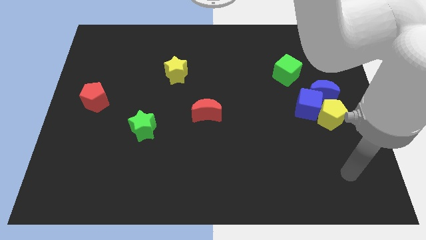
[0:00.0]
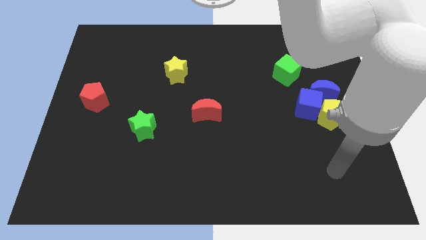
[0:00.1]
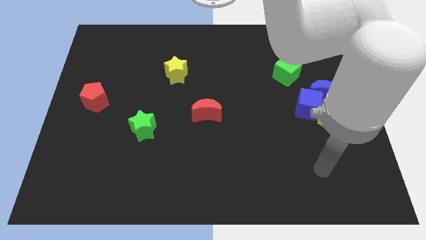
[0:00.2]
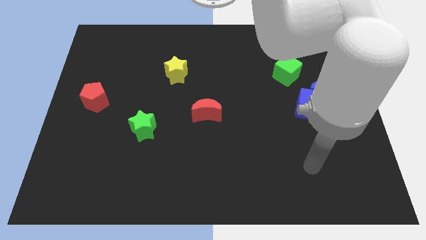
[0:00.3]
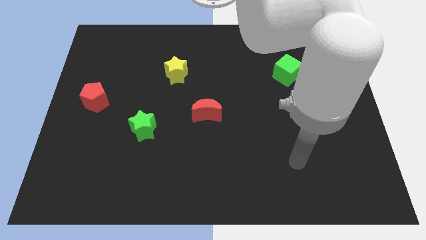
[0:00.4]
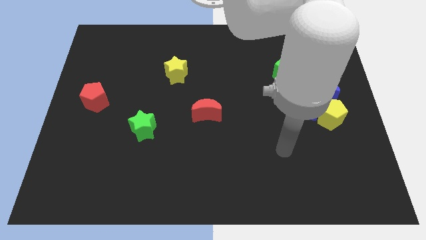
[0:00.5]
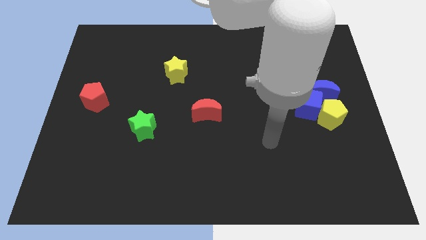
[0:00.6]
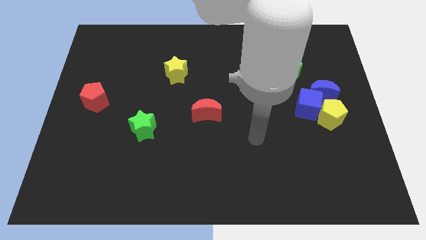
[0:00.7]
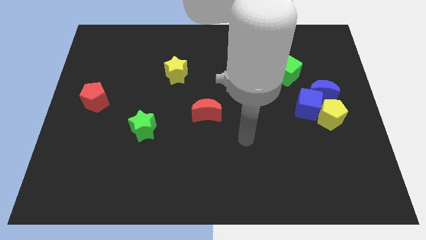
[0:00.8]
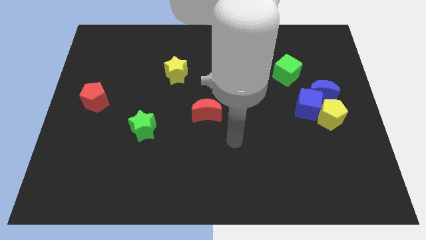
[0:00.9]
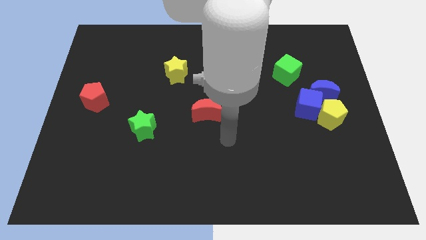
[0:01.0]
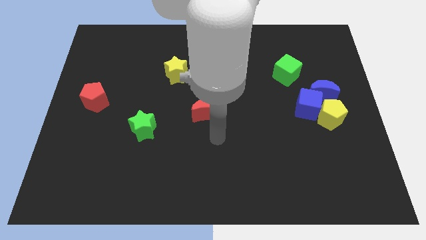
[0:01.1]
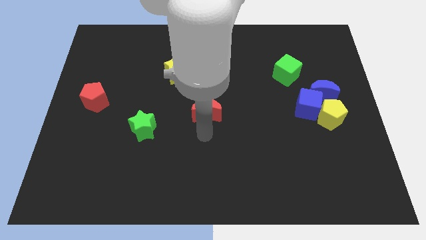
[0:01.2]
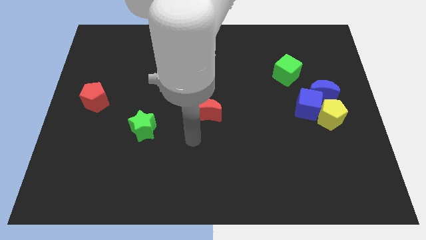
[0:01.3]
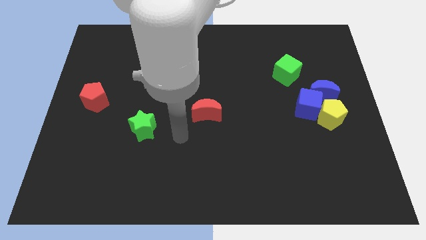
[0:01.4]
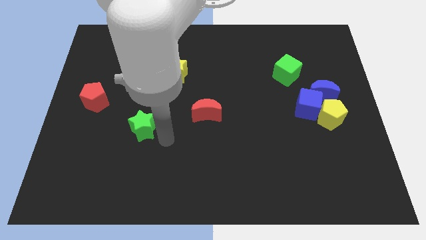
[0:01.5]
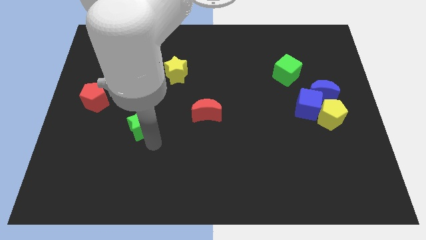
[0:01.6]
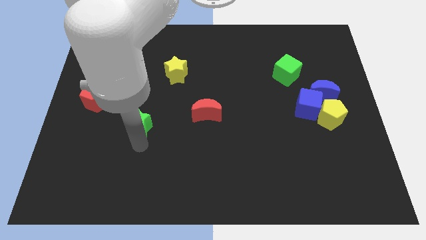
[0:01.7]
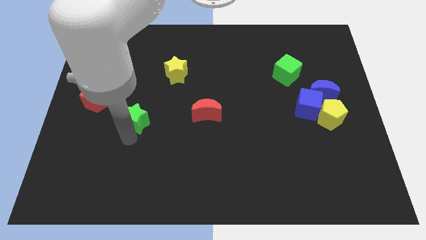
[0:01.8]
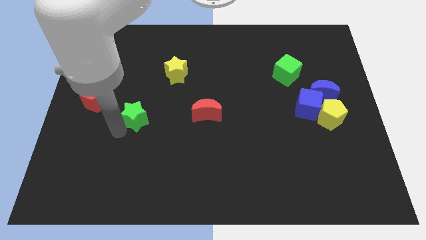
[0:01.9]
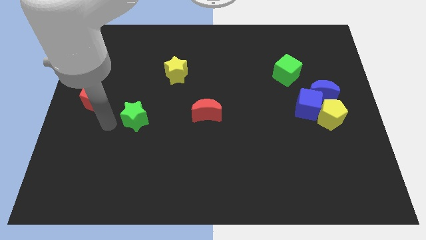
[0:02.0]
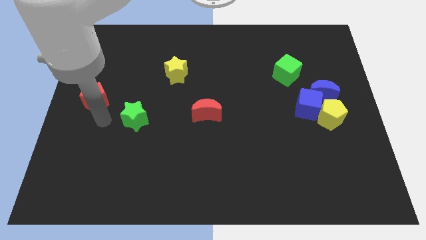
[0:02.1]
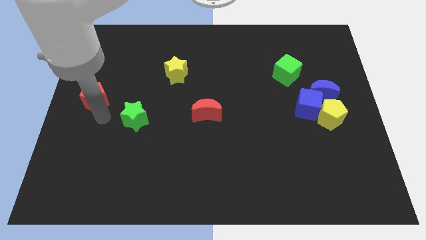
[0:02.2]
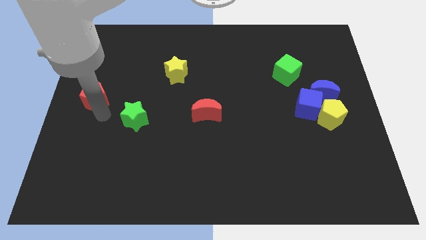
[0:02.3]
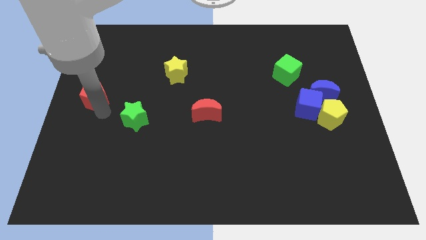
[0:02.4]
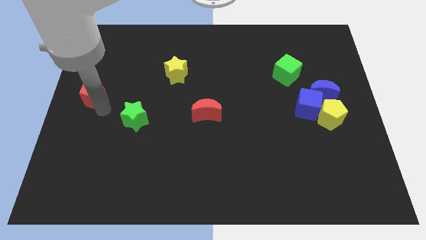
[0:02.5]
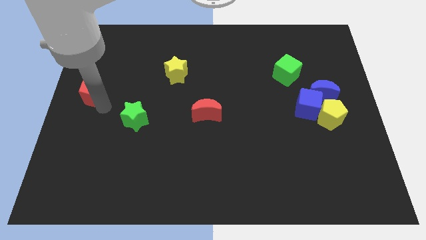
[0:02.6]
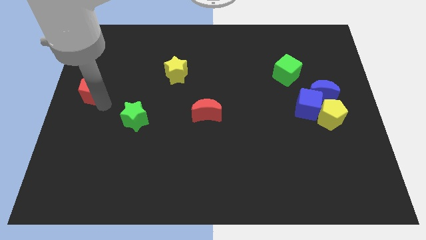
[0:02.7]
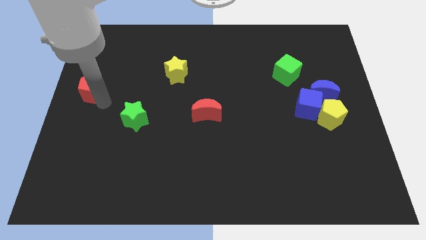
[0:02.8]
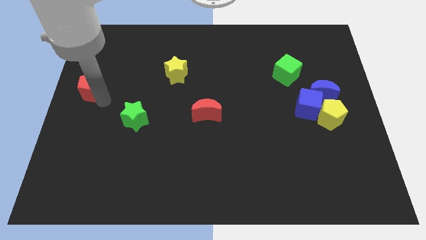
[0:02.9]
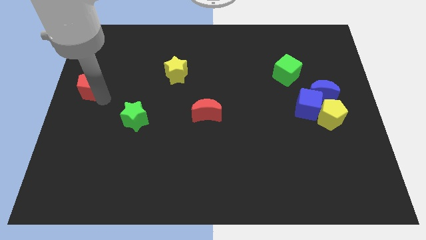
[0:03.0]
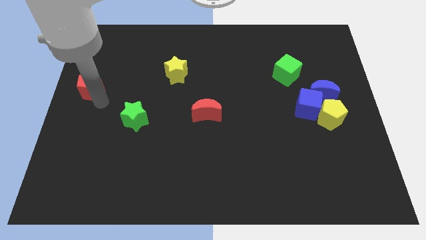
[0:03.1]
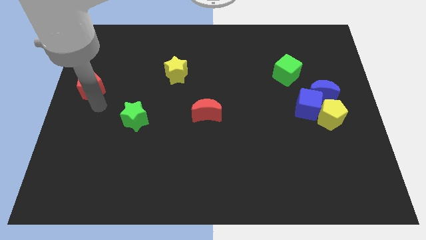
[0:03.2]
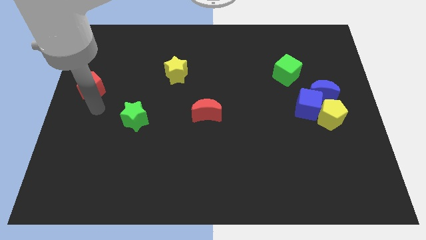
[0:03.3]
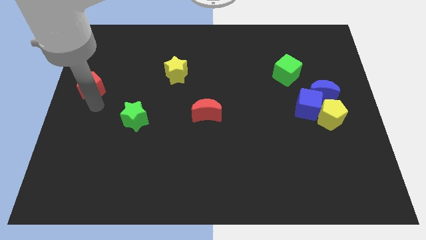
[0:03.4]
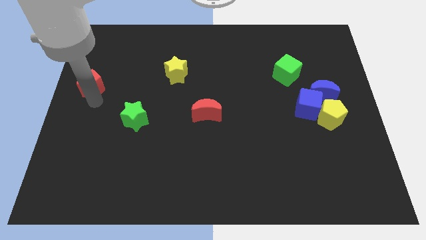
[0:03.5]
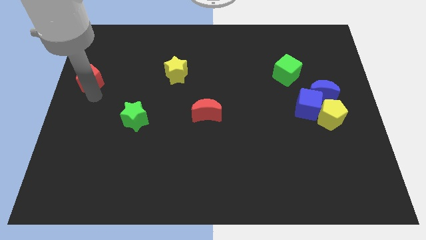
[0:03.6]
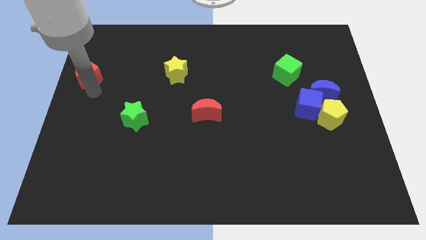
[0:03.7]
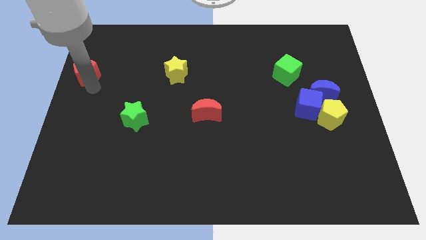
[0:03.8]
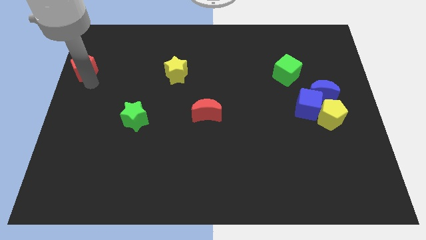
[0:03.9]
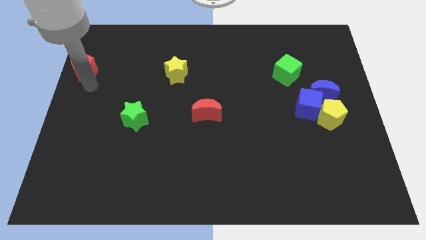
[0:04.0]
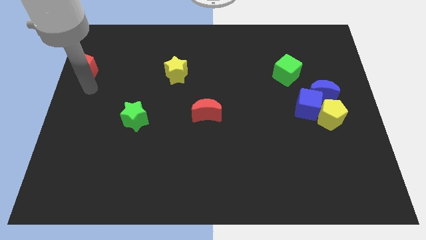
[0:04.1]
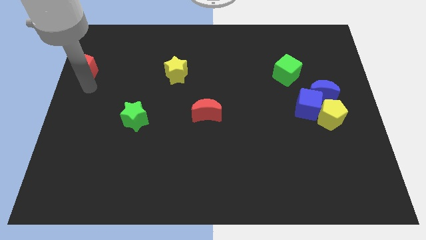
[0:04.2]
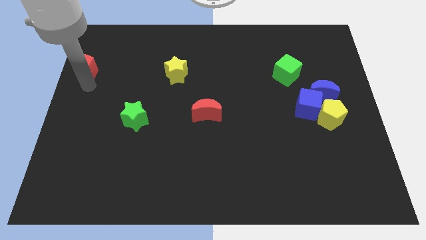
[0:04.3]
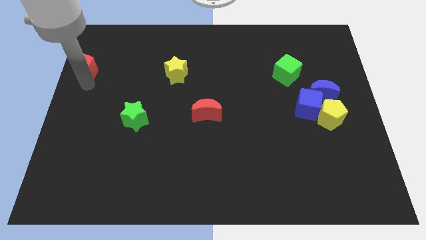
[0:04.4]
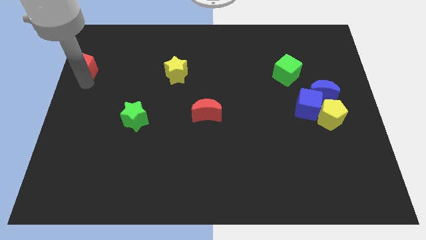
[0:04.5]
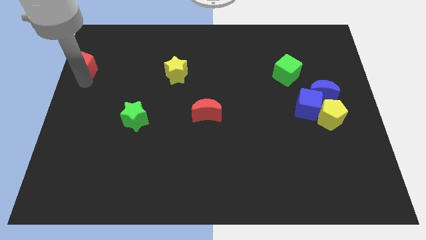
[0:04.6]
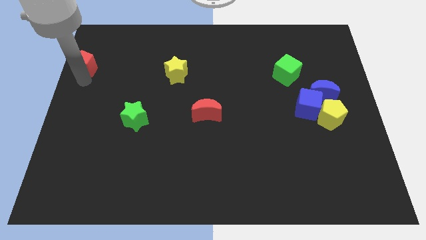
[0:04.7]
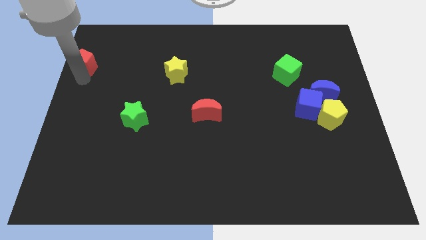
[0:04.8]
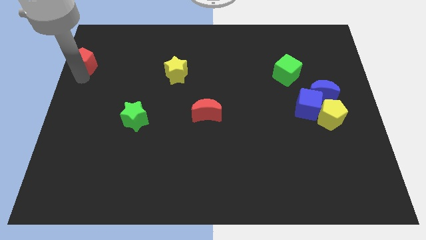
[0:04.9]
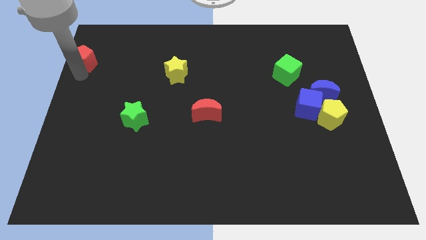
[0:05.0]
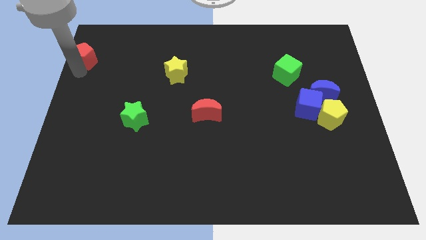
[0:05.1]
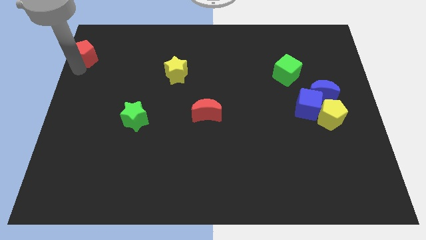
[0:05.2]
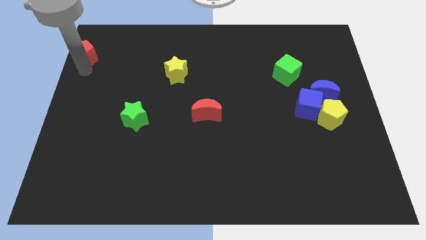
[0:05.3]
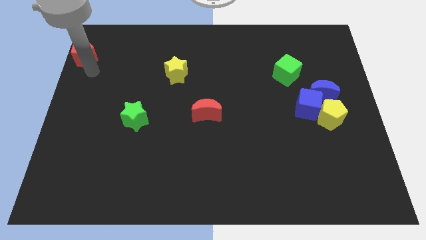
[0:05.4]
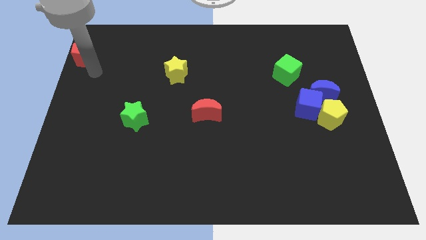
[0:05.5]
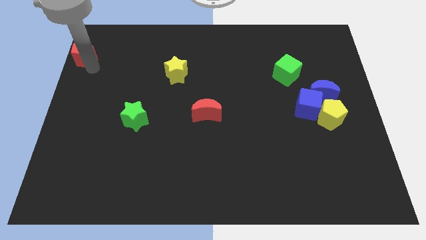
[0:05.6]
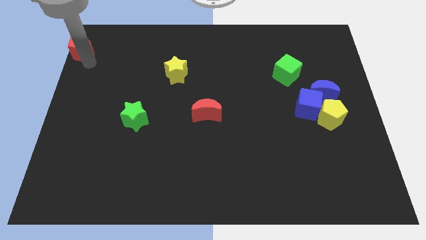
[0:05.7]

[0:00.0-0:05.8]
put the red pentagon to the upper left corner

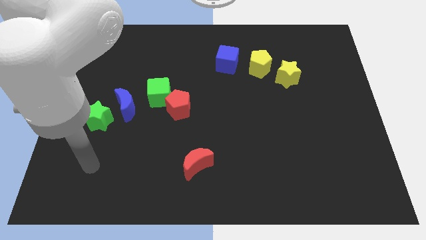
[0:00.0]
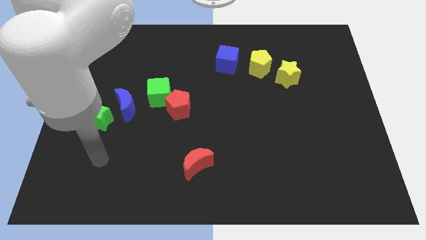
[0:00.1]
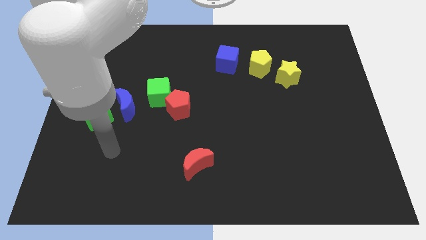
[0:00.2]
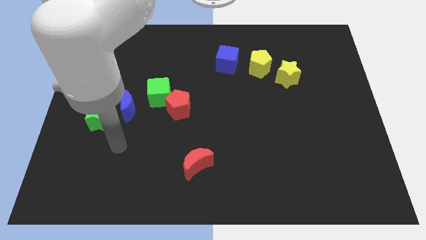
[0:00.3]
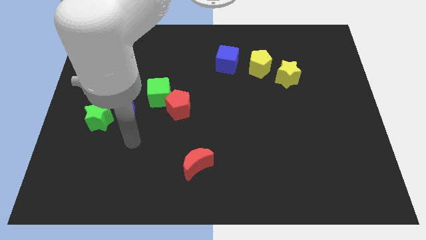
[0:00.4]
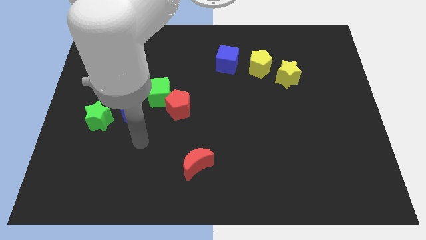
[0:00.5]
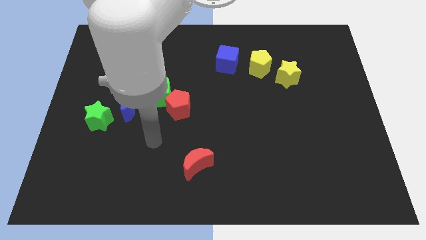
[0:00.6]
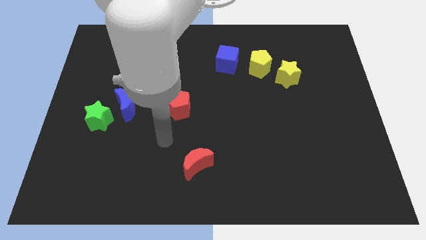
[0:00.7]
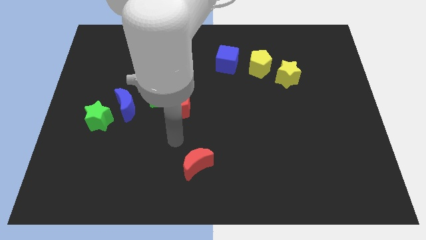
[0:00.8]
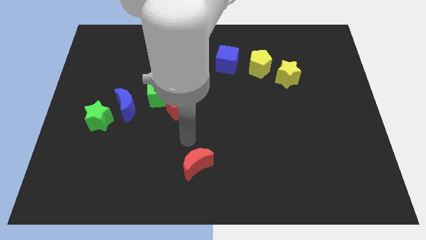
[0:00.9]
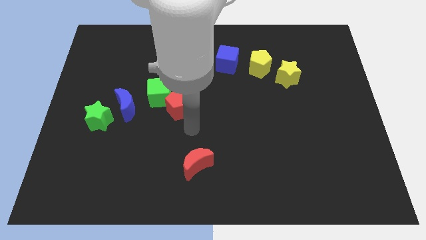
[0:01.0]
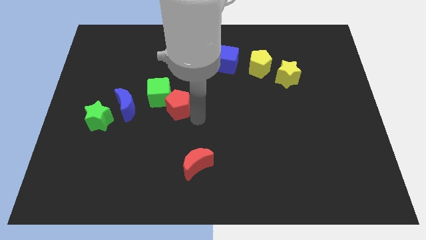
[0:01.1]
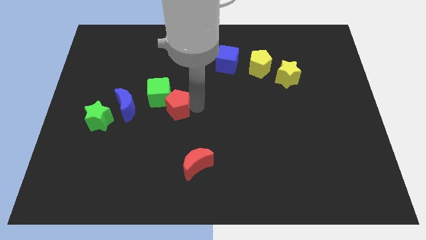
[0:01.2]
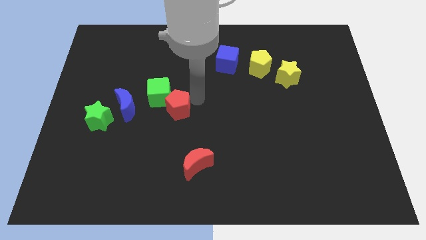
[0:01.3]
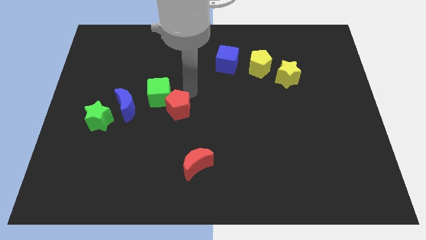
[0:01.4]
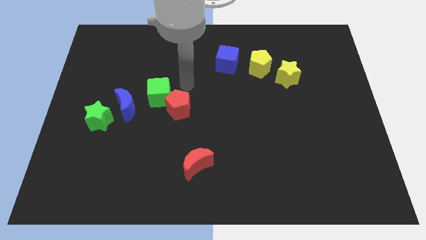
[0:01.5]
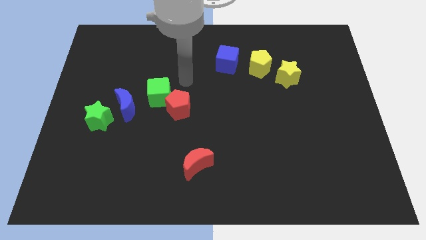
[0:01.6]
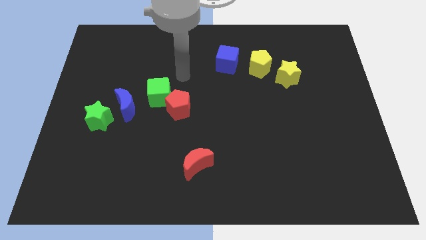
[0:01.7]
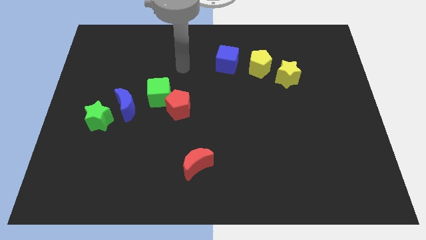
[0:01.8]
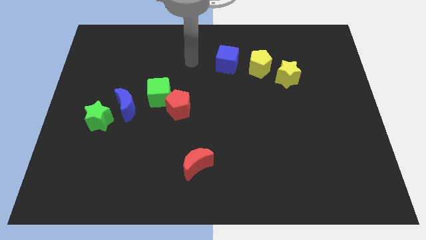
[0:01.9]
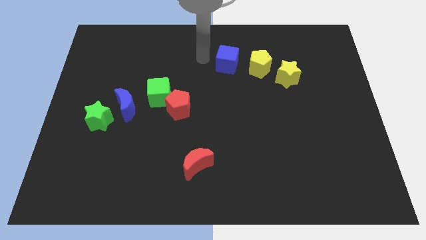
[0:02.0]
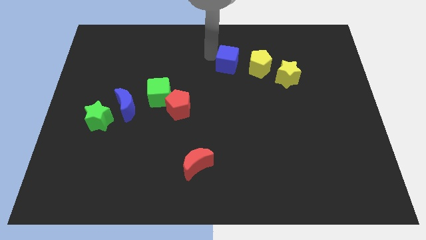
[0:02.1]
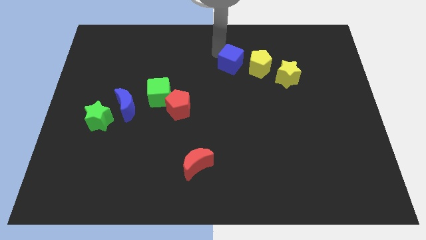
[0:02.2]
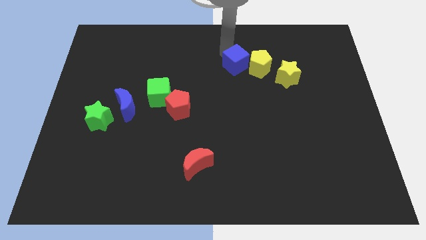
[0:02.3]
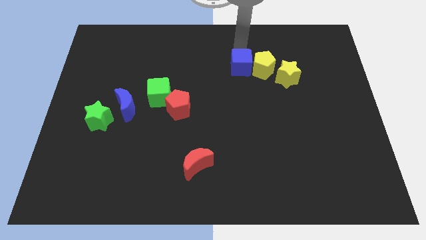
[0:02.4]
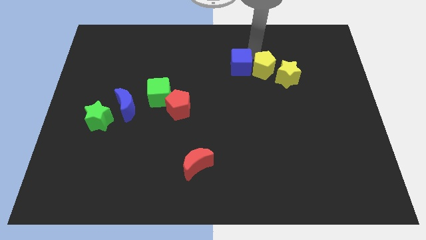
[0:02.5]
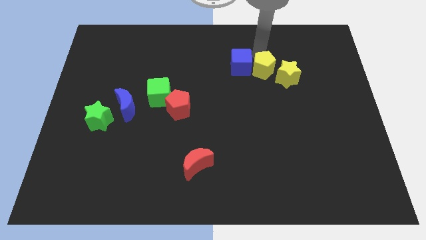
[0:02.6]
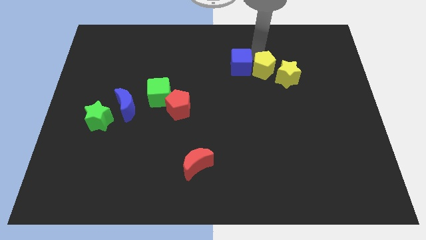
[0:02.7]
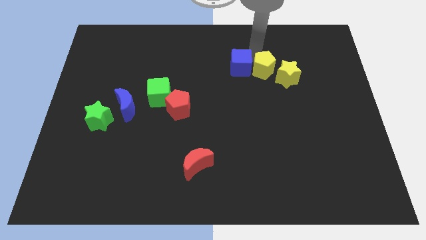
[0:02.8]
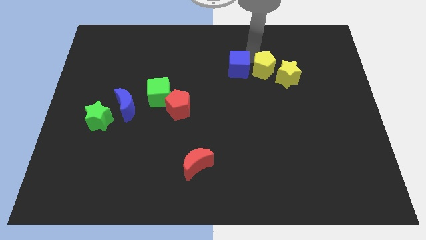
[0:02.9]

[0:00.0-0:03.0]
put the blue cube to the middle
